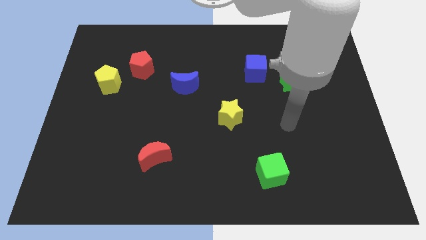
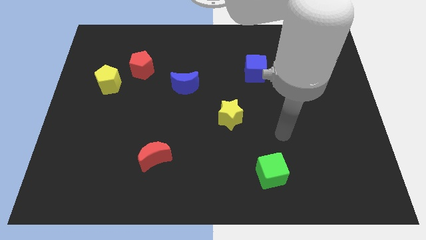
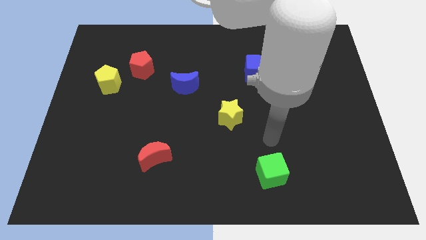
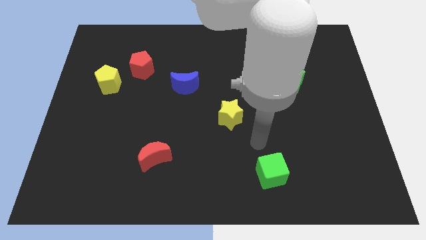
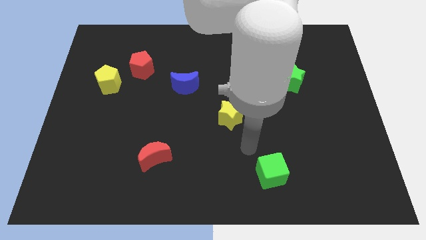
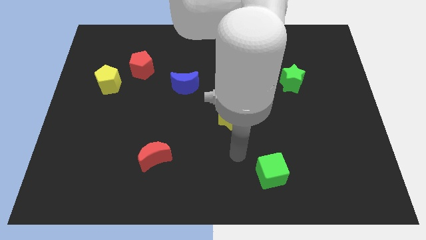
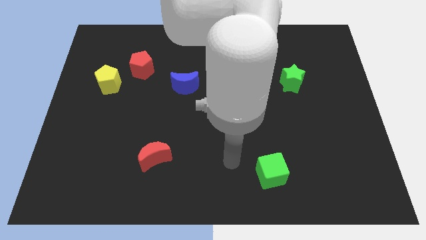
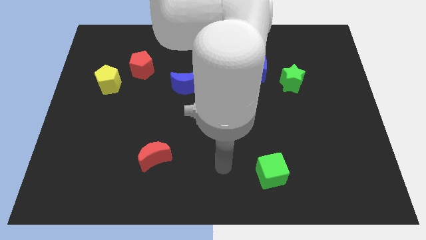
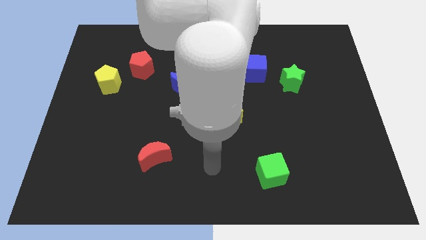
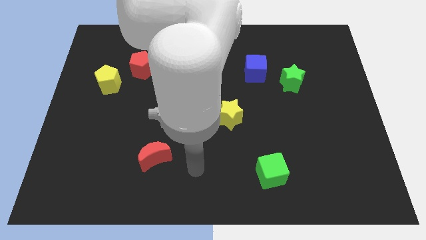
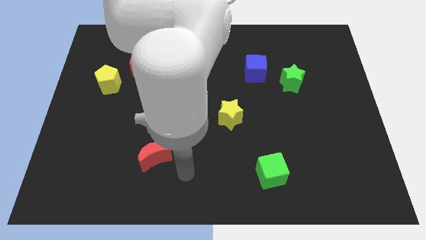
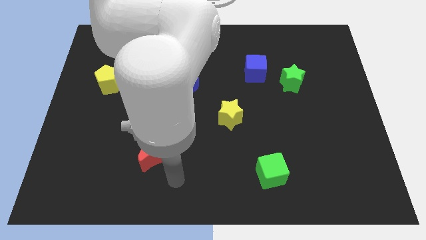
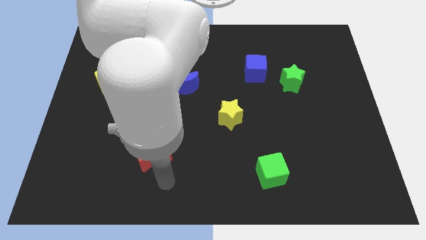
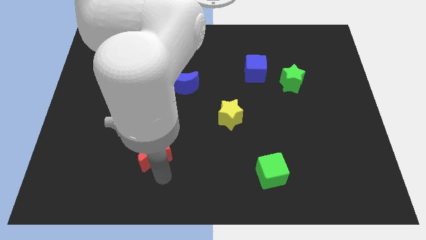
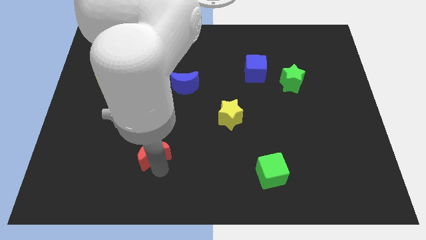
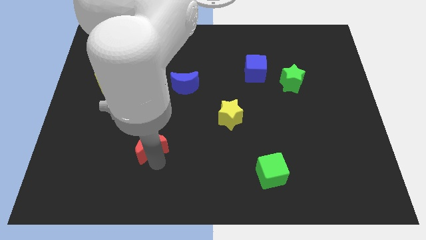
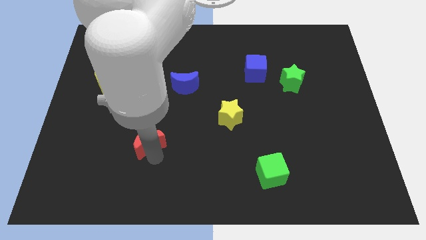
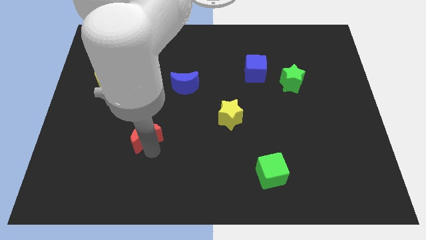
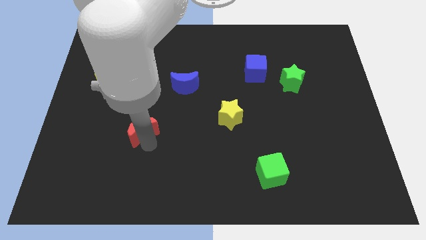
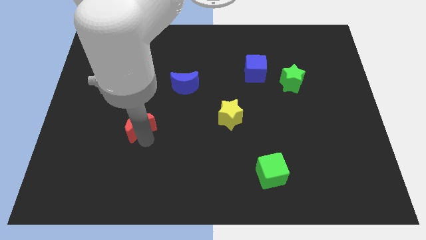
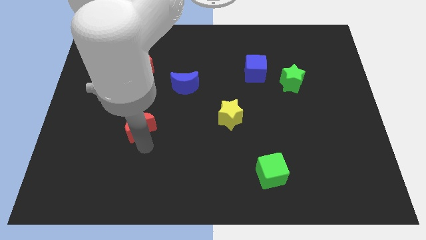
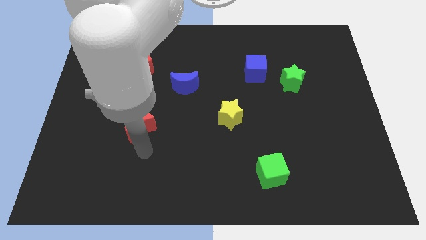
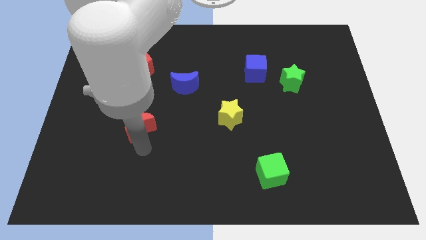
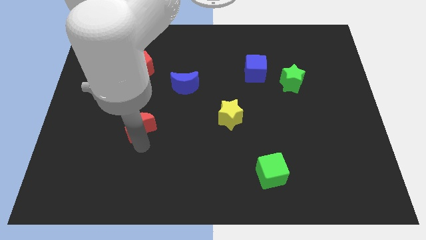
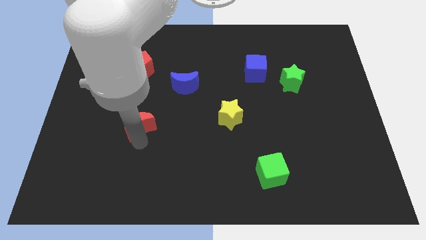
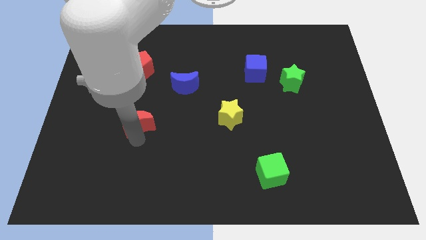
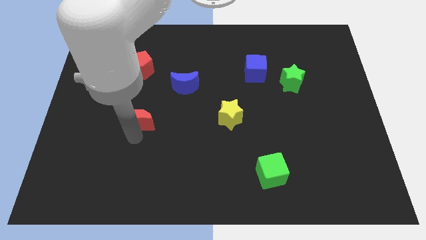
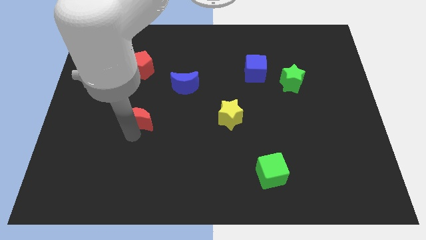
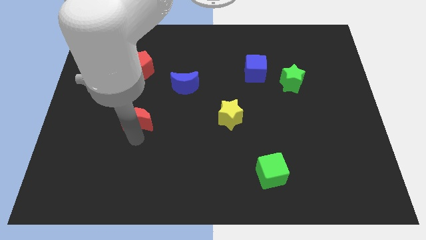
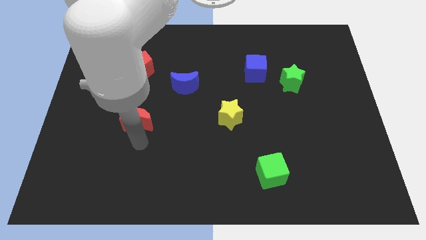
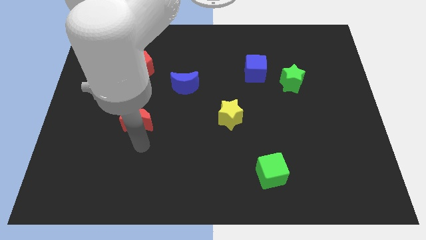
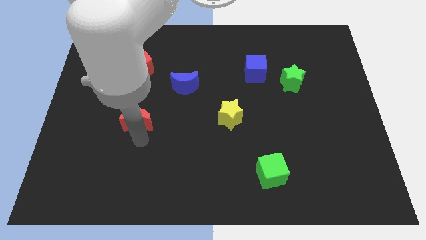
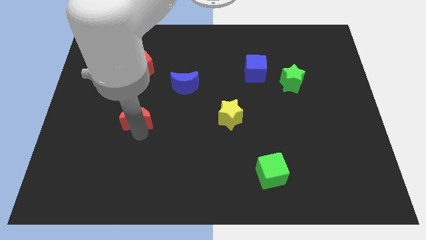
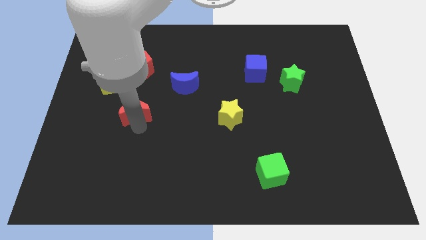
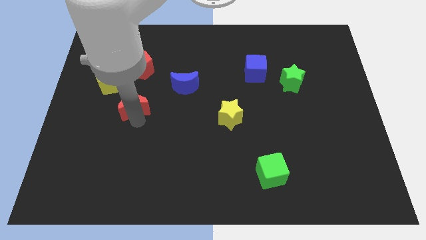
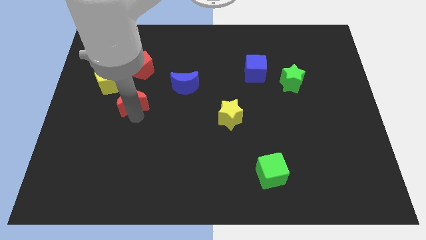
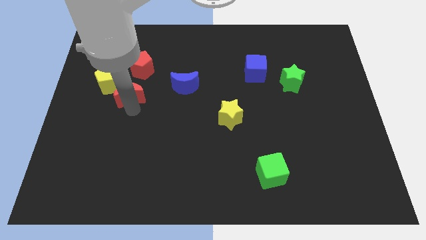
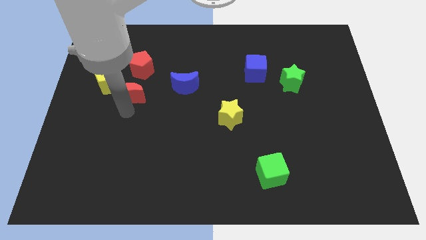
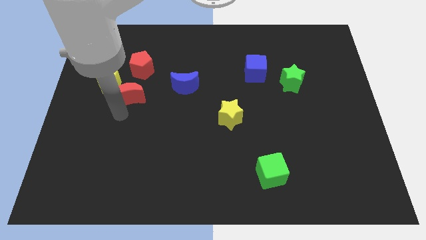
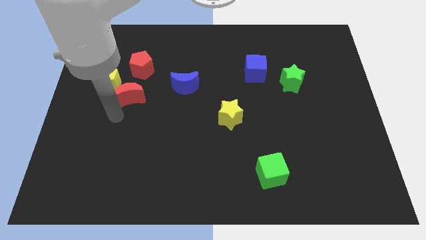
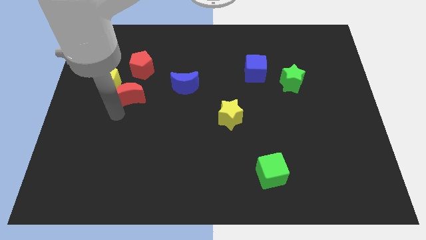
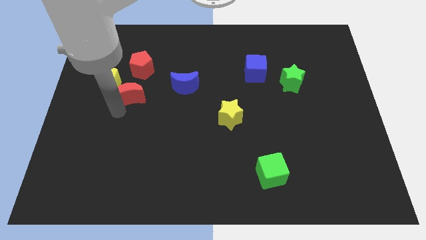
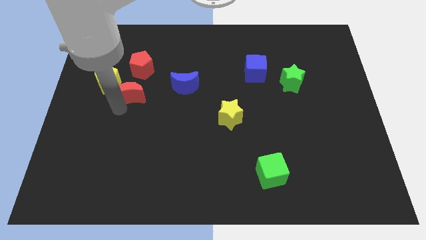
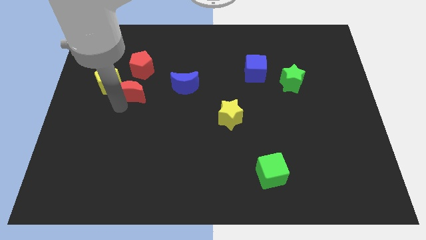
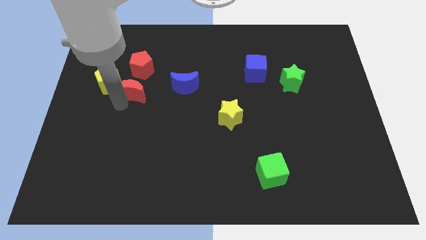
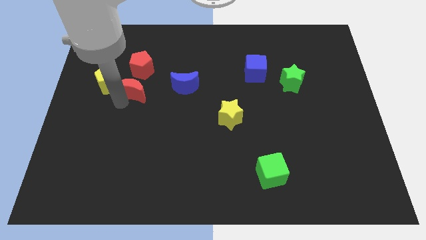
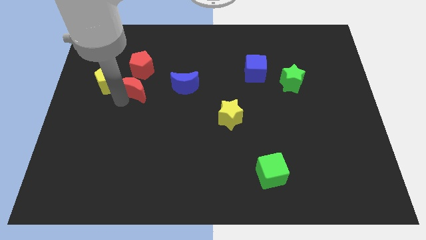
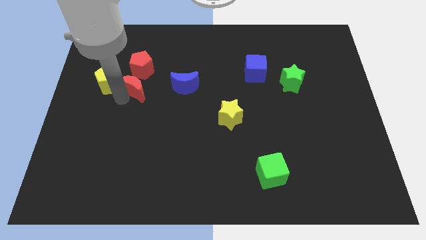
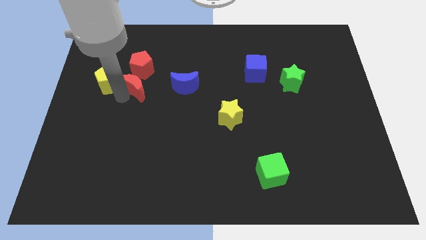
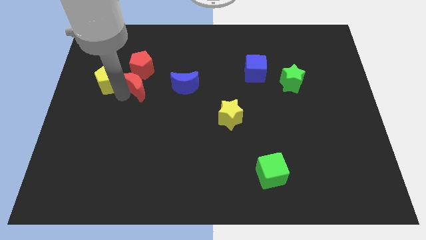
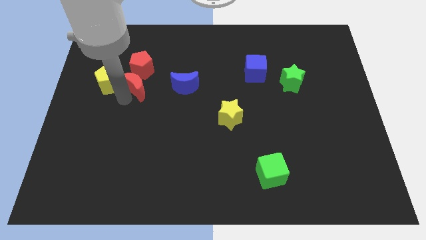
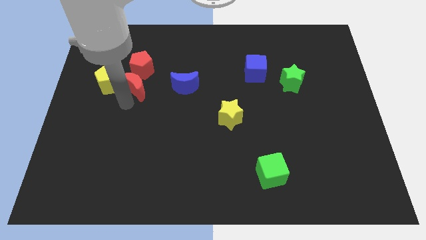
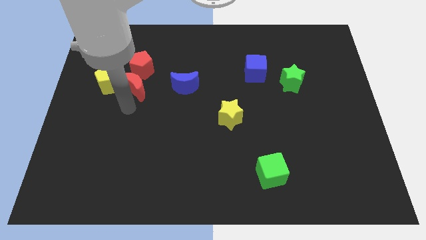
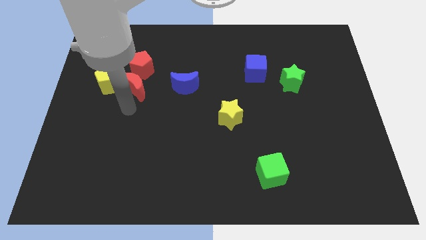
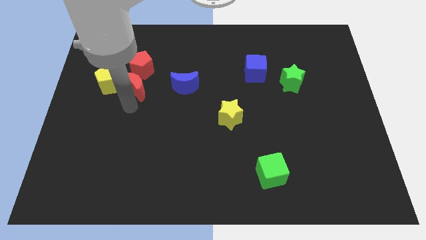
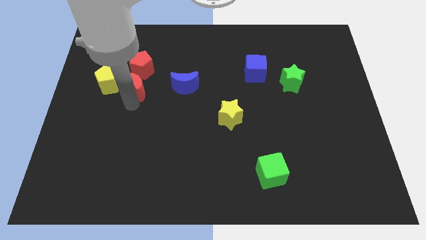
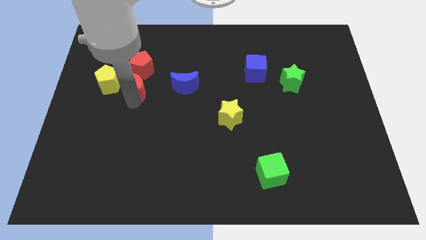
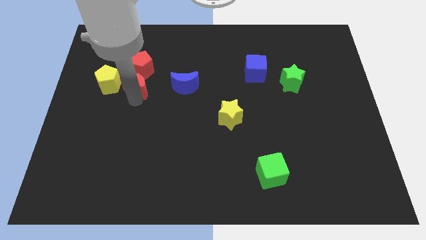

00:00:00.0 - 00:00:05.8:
move the red moon towards the red pentagon

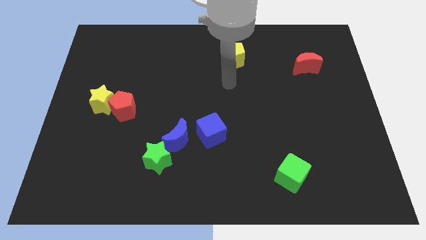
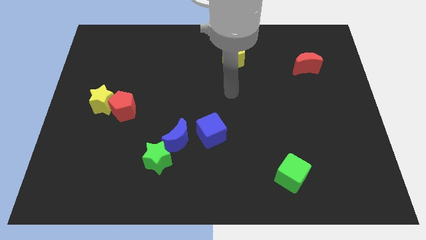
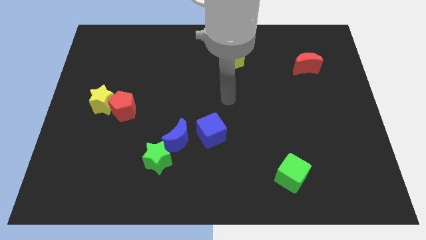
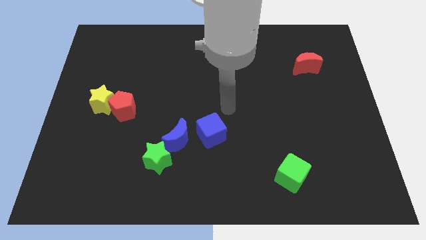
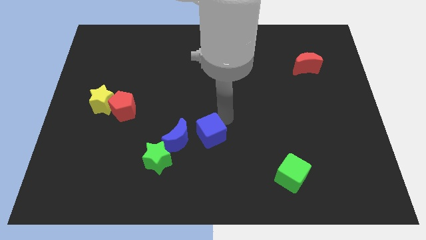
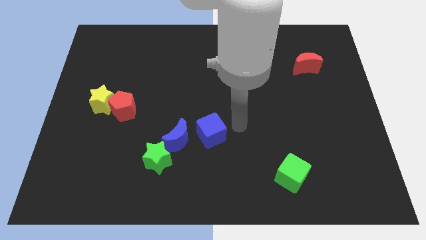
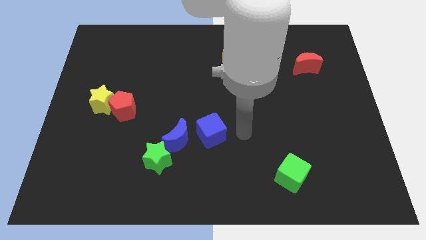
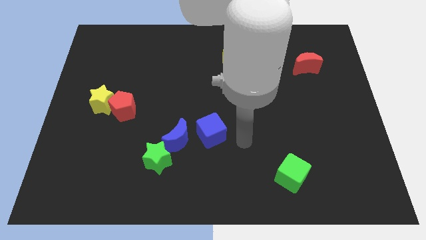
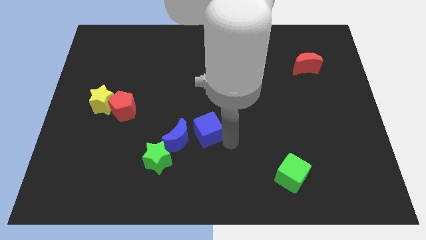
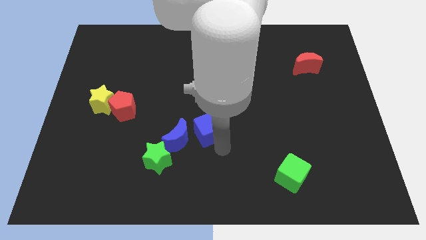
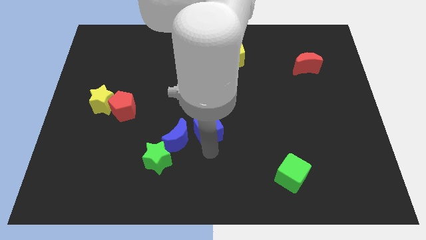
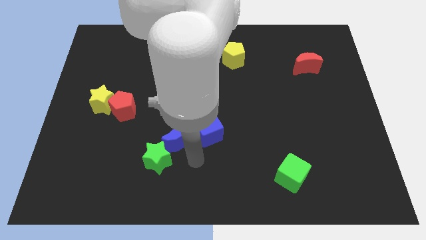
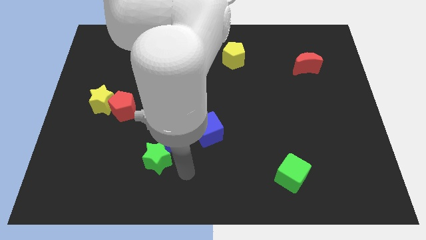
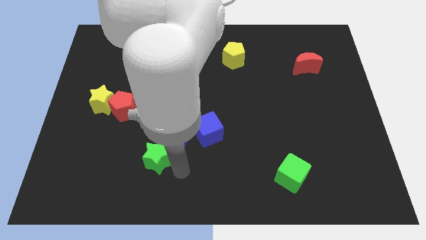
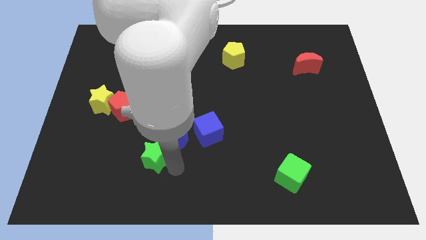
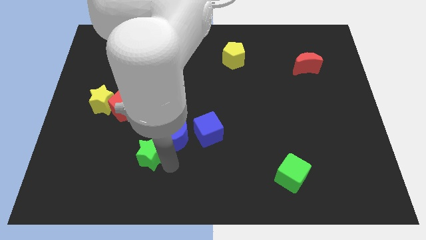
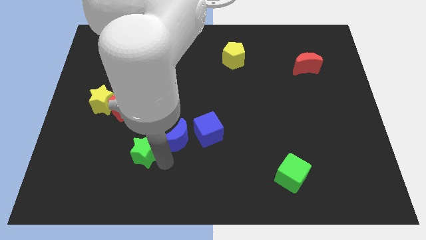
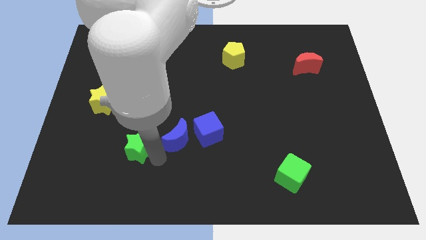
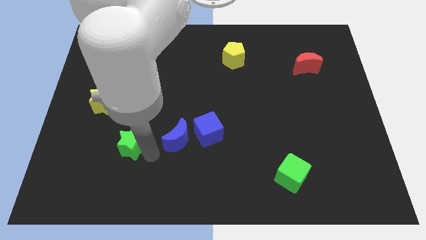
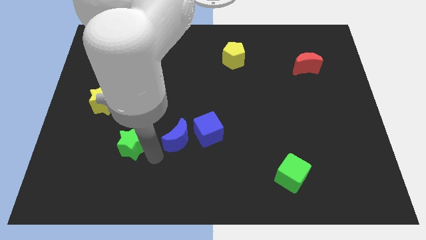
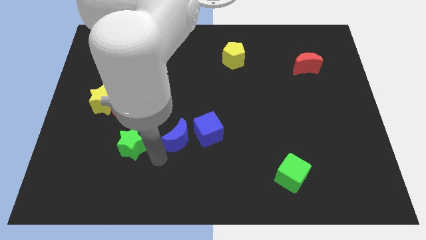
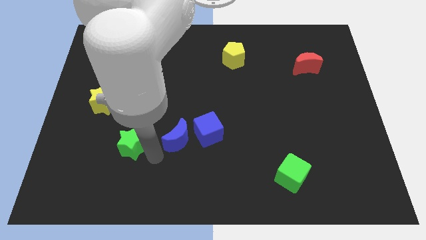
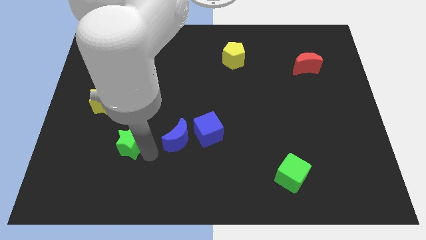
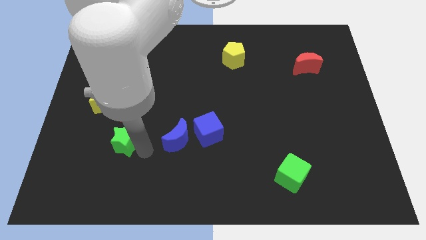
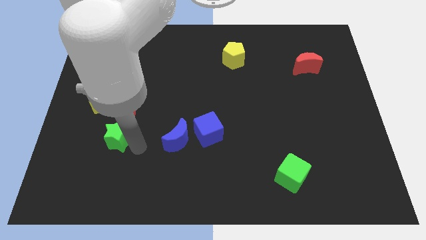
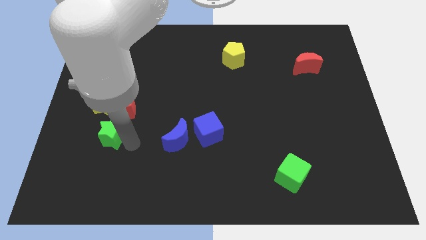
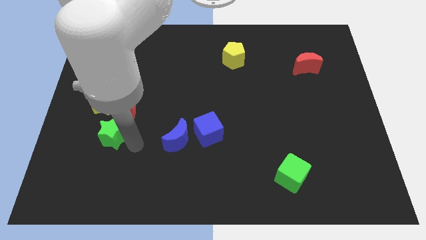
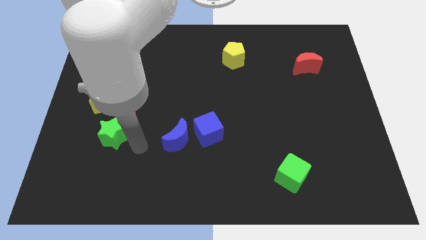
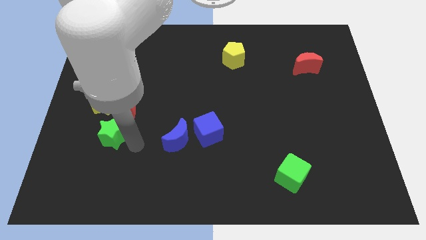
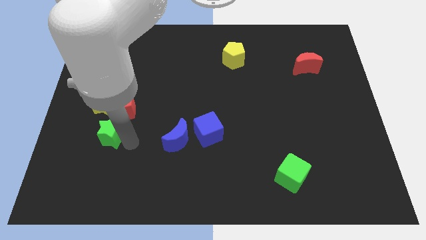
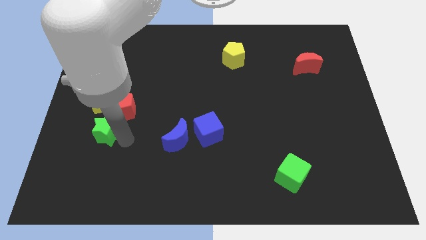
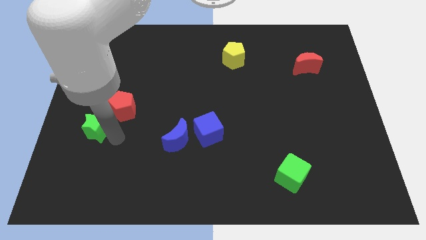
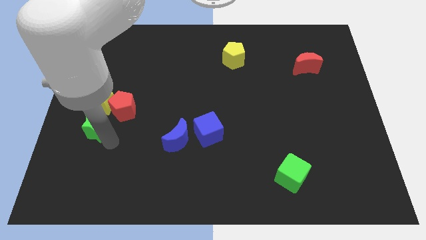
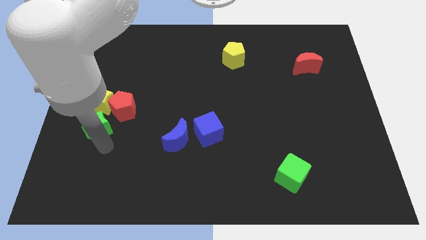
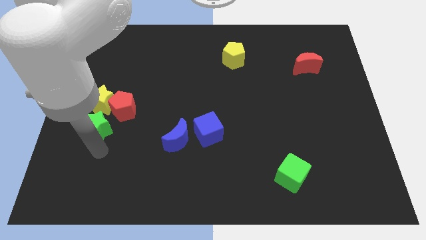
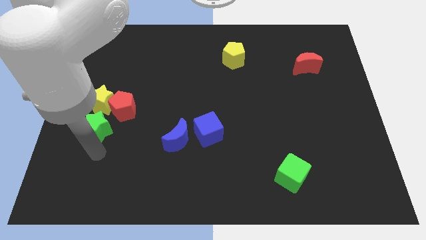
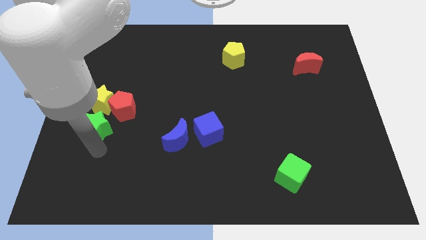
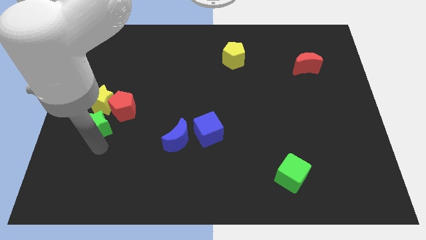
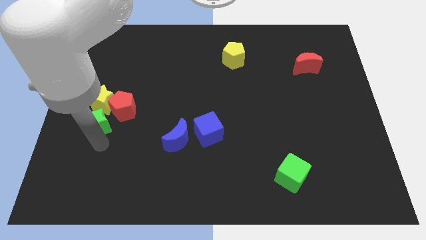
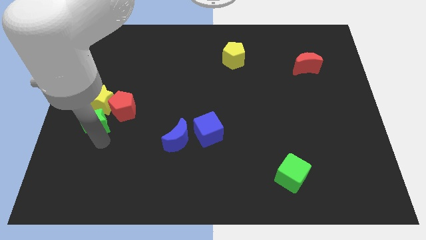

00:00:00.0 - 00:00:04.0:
move the green star close to the yellow star
